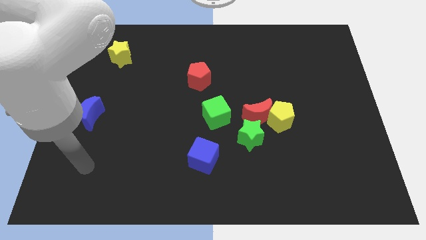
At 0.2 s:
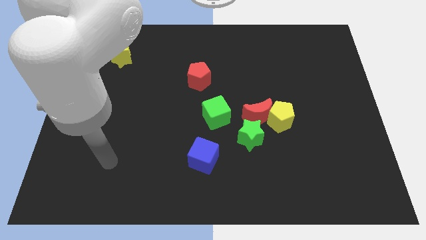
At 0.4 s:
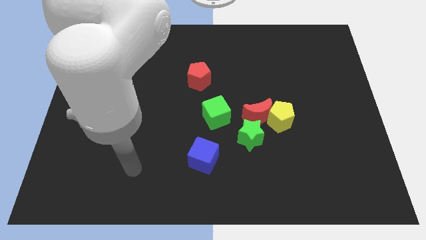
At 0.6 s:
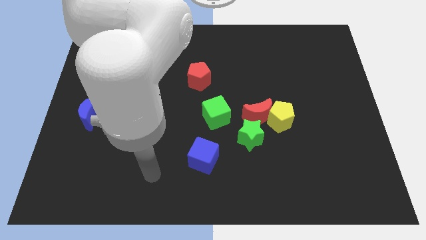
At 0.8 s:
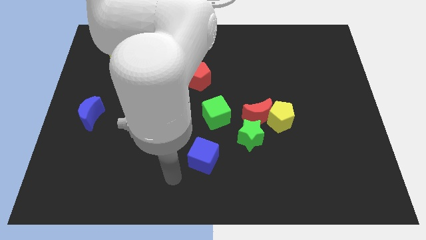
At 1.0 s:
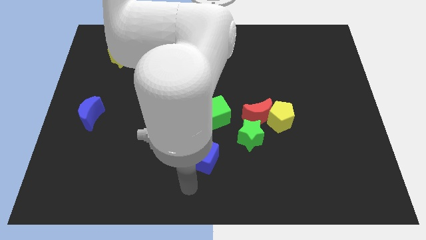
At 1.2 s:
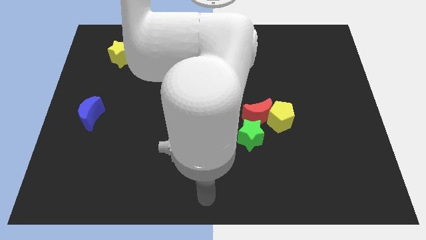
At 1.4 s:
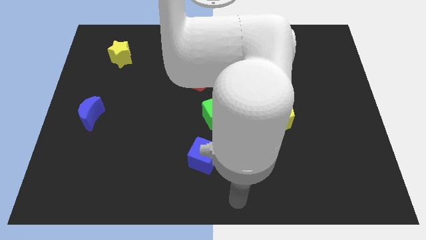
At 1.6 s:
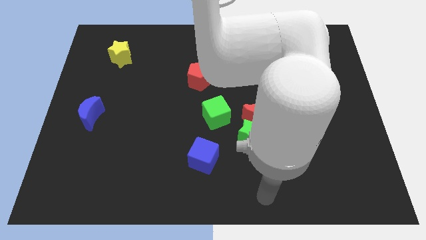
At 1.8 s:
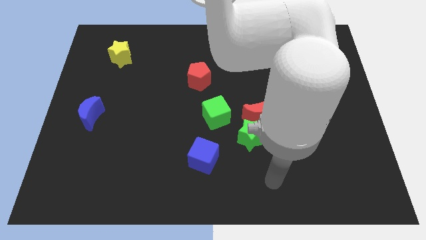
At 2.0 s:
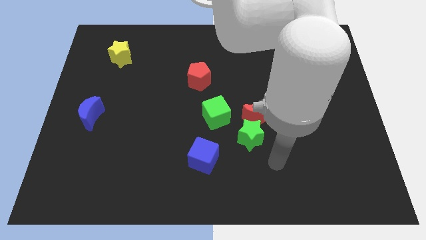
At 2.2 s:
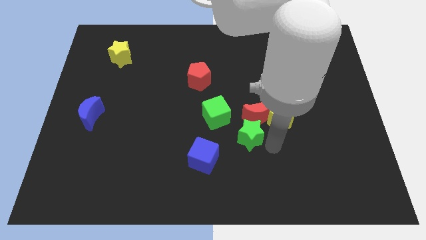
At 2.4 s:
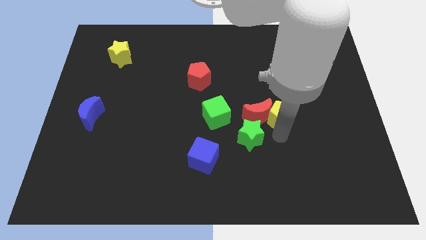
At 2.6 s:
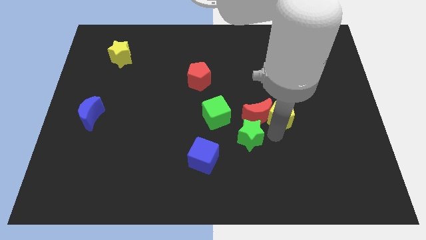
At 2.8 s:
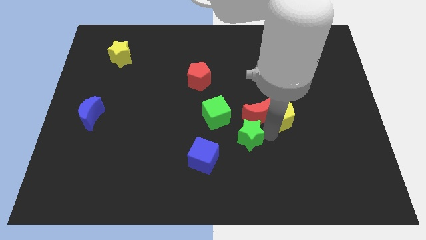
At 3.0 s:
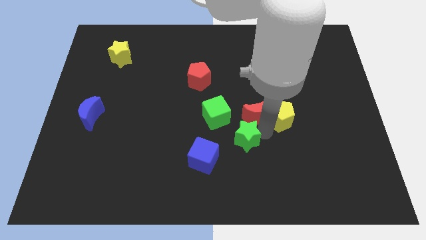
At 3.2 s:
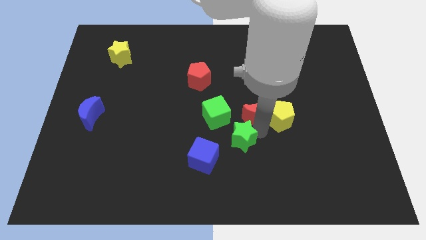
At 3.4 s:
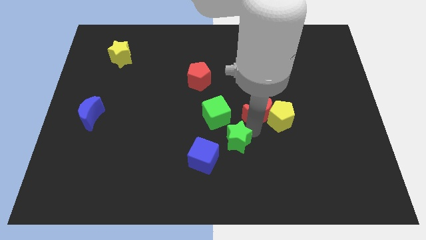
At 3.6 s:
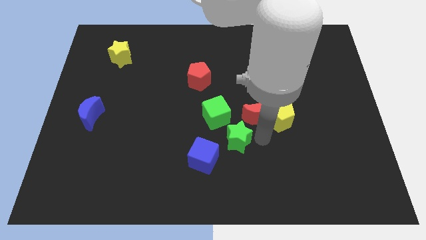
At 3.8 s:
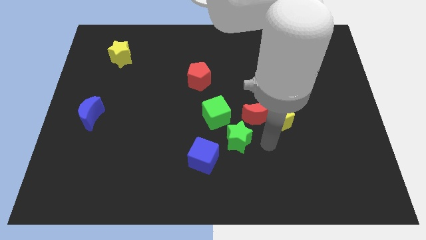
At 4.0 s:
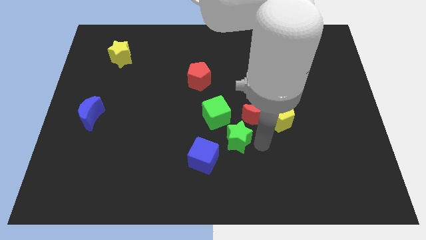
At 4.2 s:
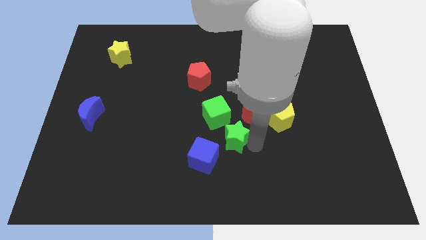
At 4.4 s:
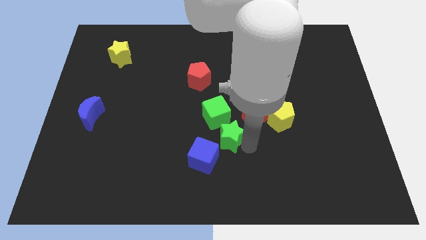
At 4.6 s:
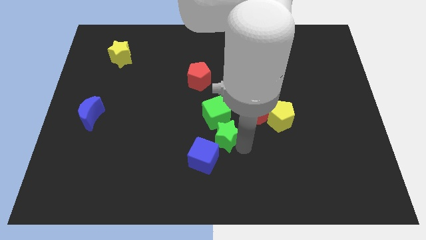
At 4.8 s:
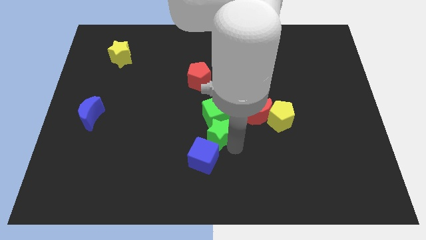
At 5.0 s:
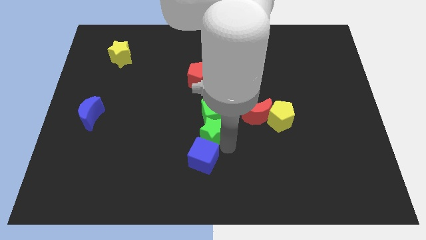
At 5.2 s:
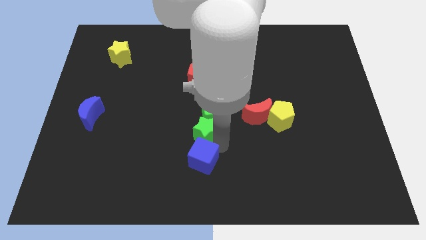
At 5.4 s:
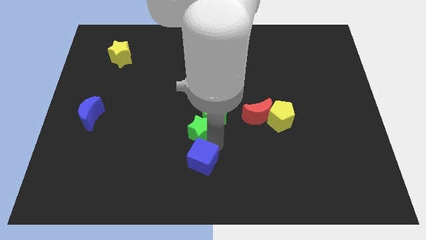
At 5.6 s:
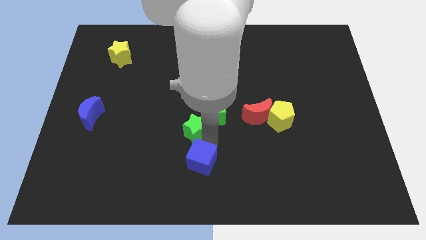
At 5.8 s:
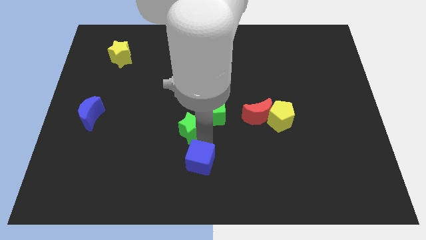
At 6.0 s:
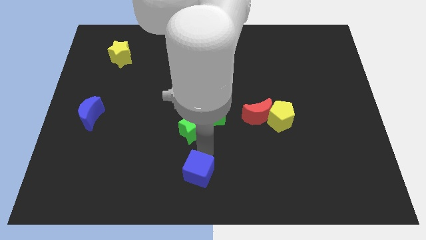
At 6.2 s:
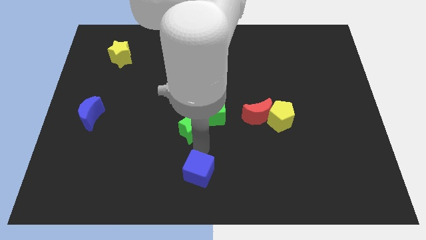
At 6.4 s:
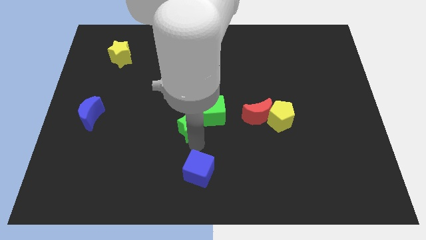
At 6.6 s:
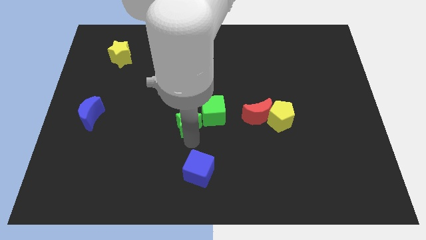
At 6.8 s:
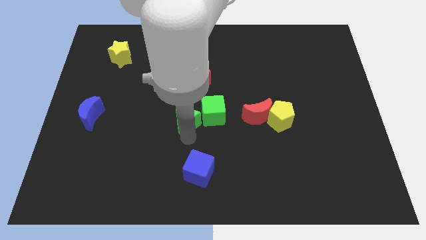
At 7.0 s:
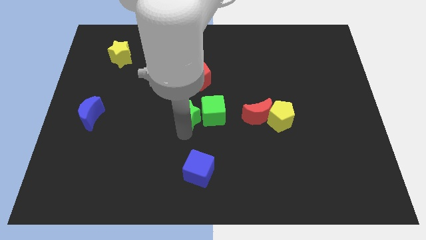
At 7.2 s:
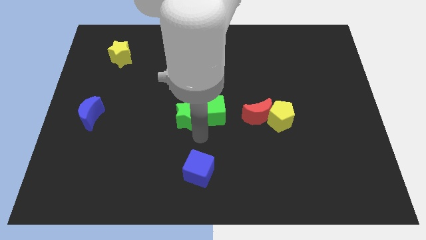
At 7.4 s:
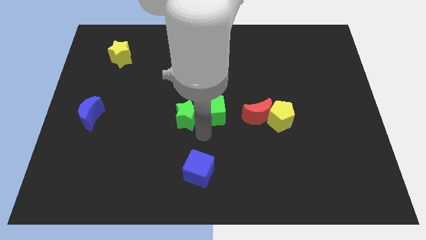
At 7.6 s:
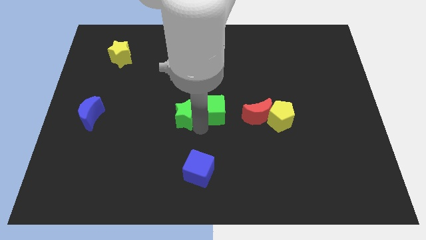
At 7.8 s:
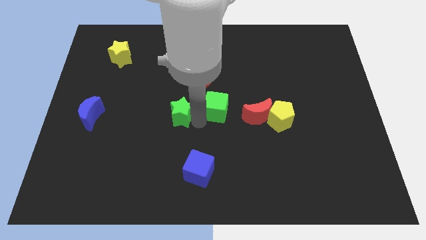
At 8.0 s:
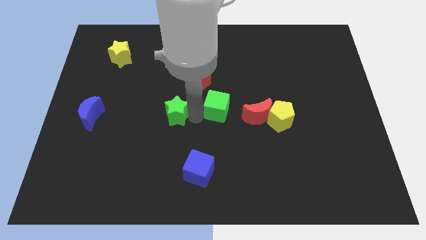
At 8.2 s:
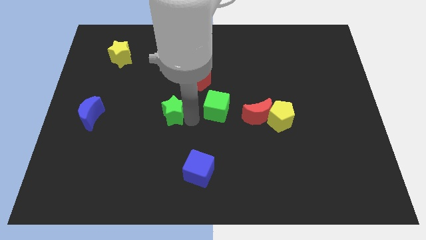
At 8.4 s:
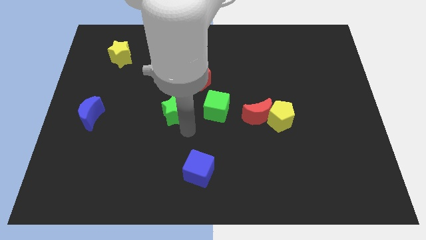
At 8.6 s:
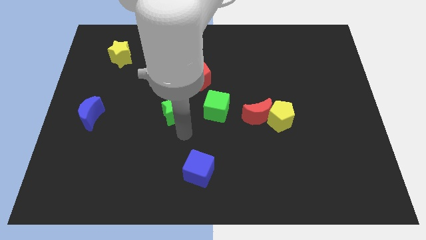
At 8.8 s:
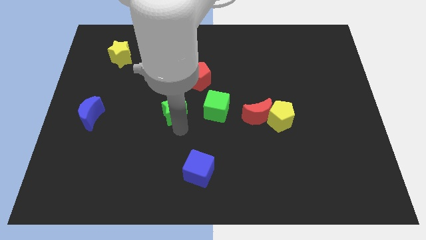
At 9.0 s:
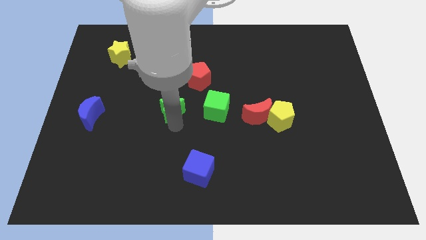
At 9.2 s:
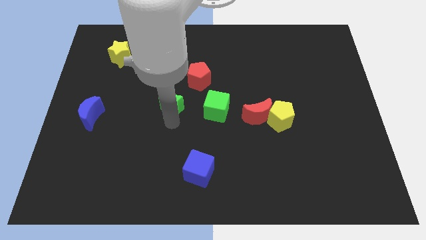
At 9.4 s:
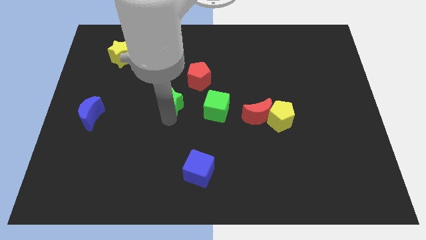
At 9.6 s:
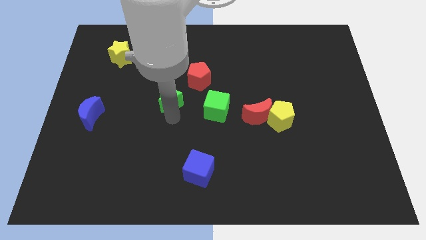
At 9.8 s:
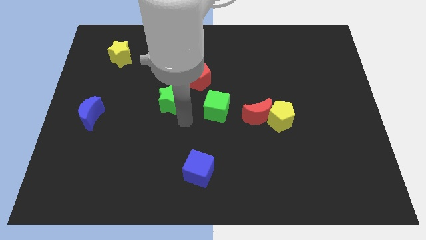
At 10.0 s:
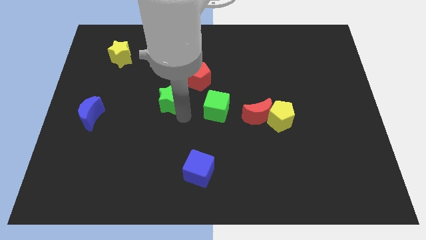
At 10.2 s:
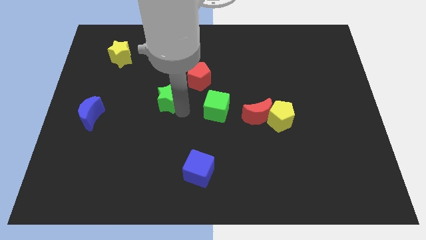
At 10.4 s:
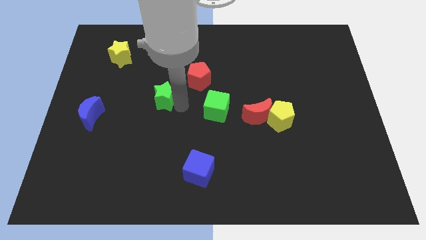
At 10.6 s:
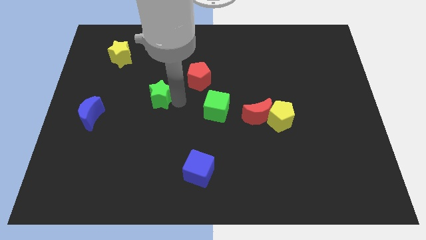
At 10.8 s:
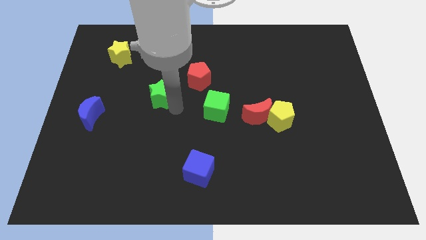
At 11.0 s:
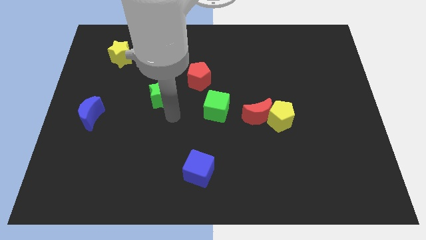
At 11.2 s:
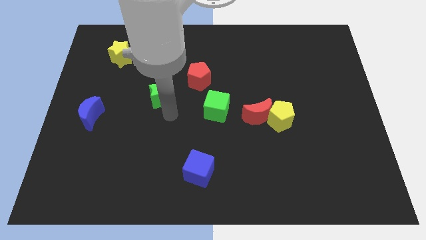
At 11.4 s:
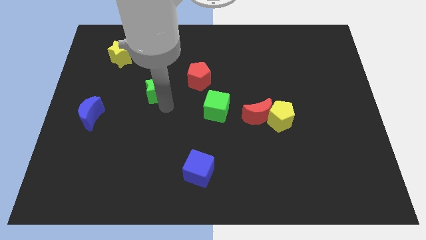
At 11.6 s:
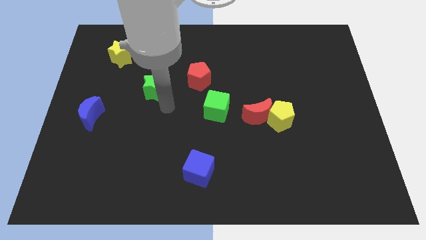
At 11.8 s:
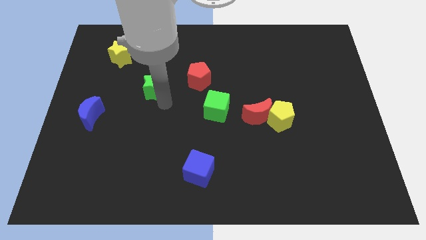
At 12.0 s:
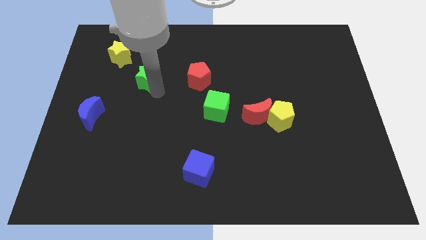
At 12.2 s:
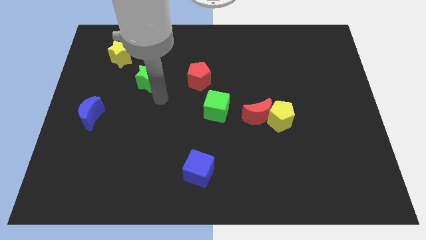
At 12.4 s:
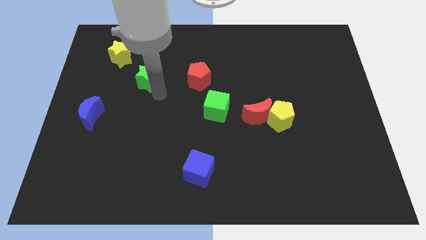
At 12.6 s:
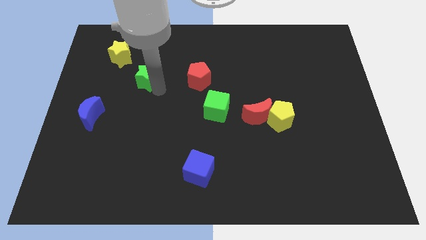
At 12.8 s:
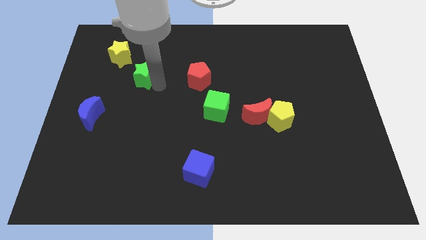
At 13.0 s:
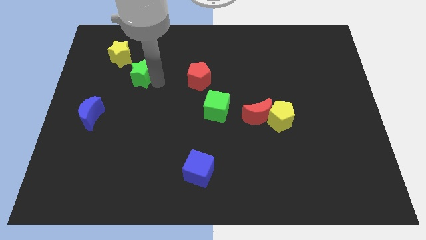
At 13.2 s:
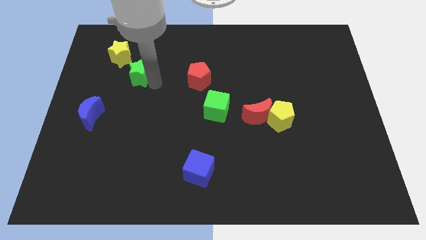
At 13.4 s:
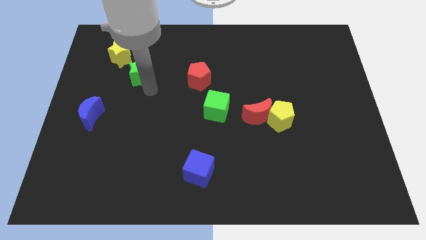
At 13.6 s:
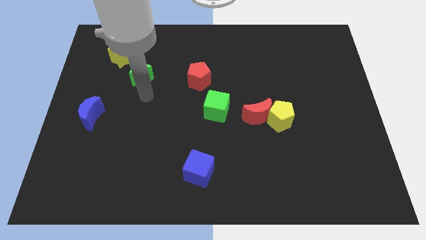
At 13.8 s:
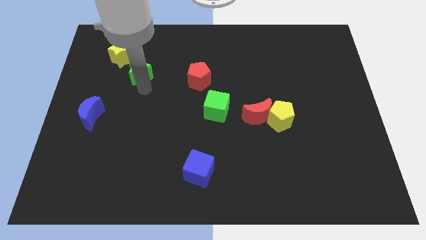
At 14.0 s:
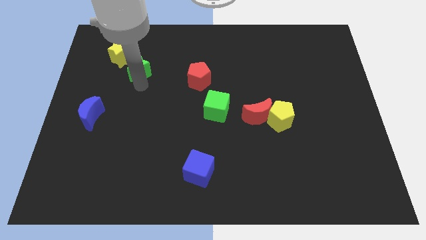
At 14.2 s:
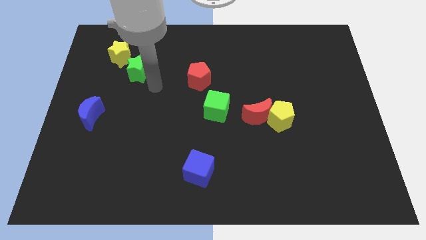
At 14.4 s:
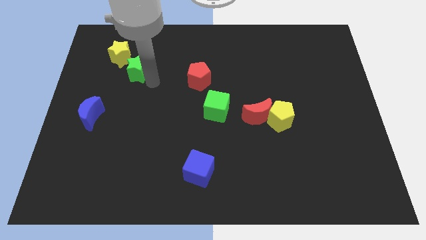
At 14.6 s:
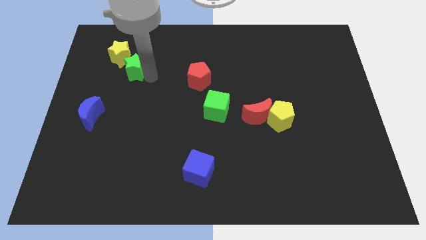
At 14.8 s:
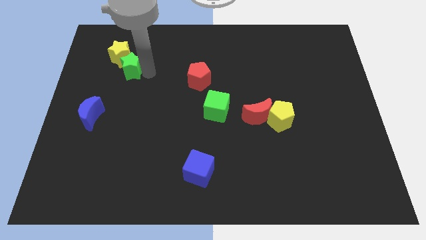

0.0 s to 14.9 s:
put the green star close to the yellow star
